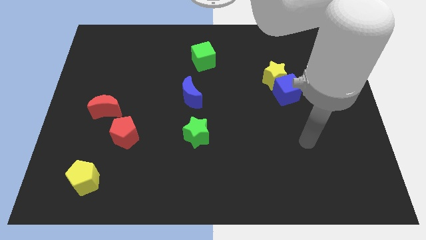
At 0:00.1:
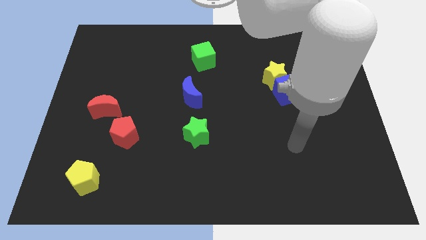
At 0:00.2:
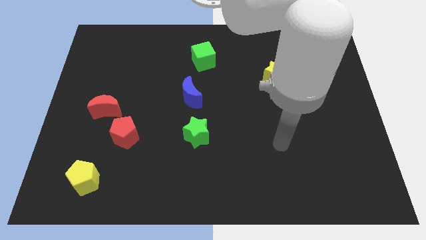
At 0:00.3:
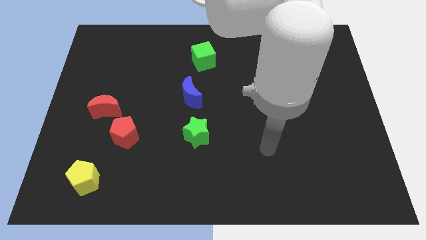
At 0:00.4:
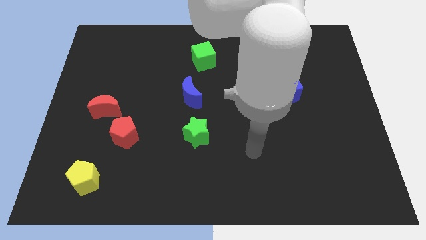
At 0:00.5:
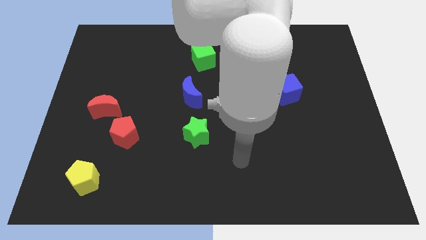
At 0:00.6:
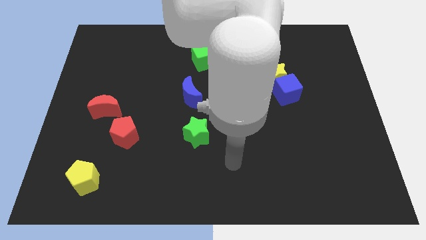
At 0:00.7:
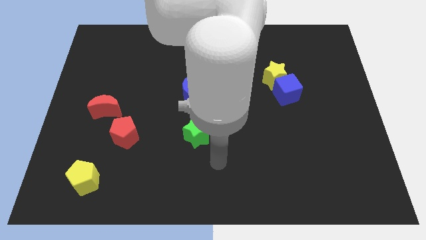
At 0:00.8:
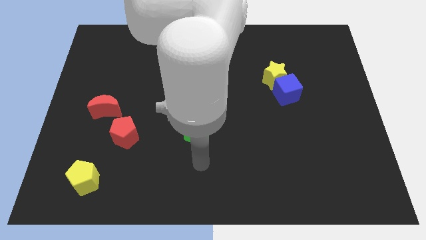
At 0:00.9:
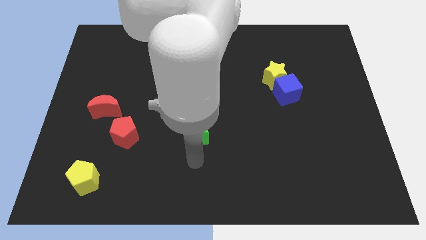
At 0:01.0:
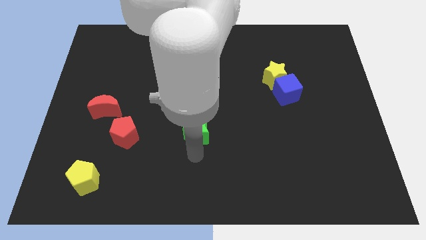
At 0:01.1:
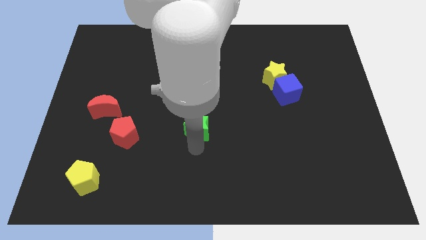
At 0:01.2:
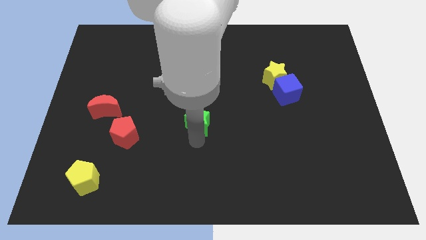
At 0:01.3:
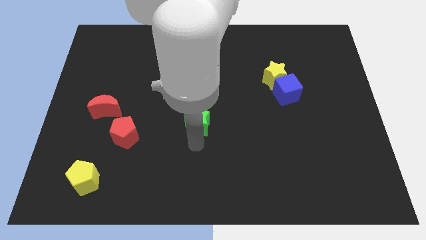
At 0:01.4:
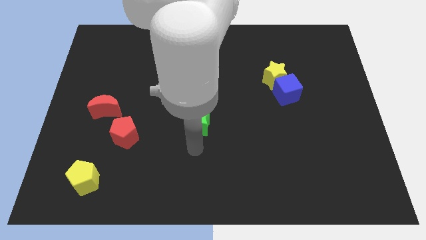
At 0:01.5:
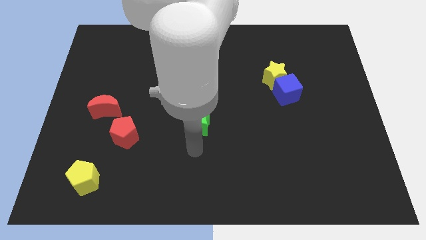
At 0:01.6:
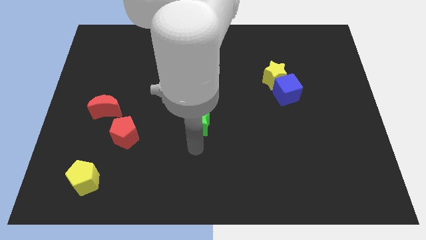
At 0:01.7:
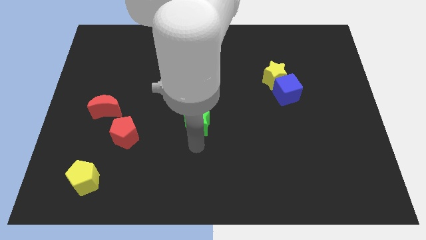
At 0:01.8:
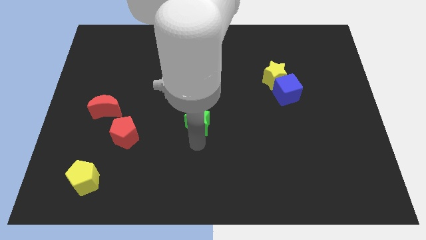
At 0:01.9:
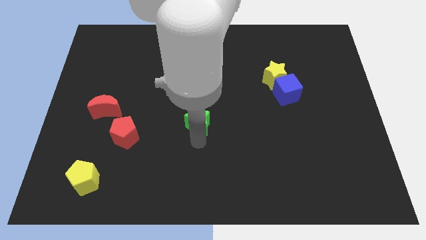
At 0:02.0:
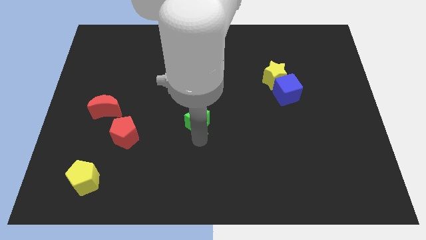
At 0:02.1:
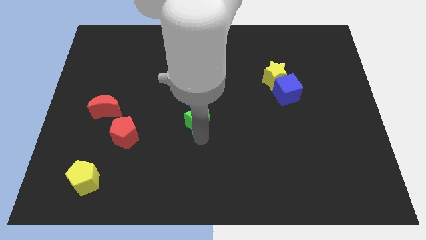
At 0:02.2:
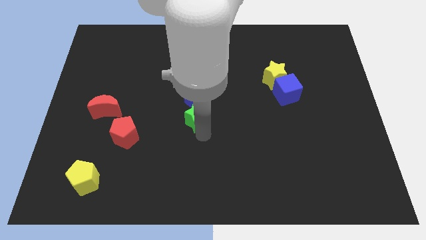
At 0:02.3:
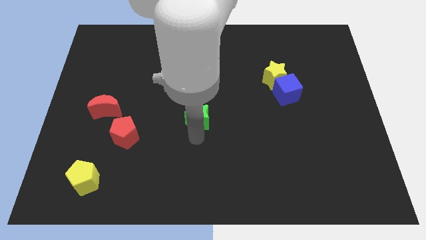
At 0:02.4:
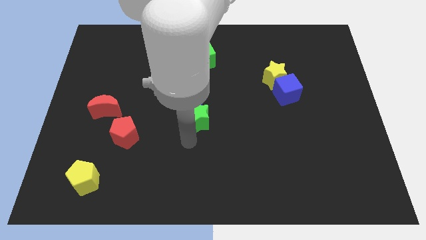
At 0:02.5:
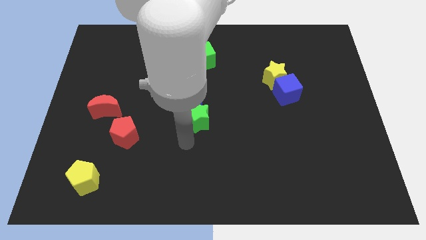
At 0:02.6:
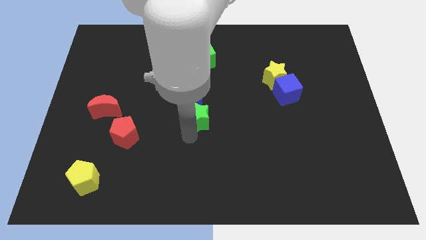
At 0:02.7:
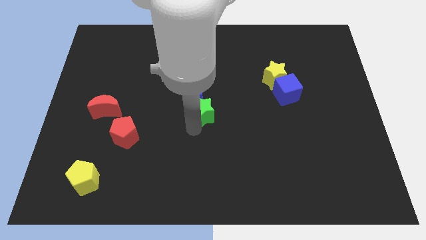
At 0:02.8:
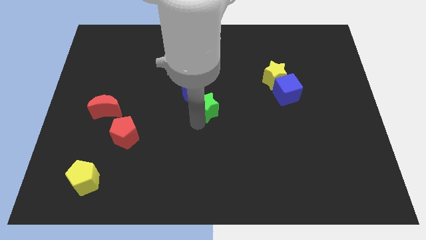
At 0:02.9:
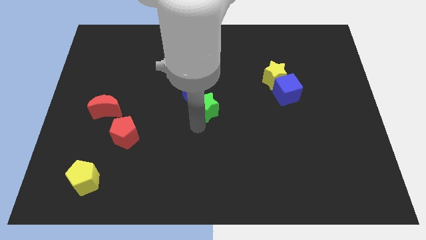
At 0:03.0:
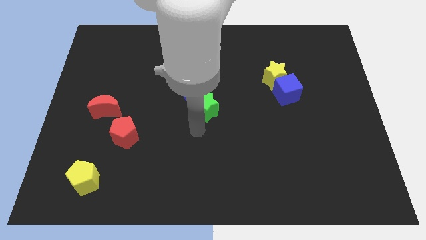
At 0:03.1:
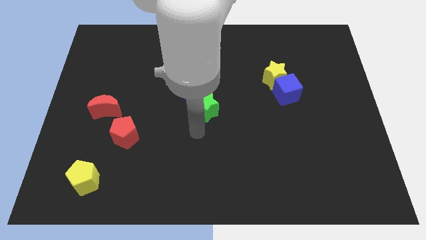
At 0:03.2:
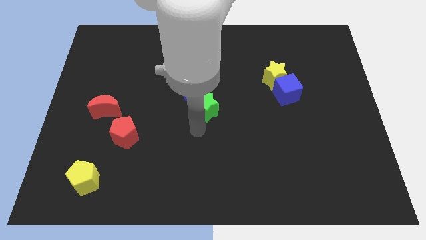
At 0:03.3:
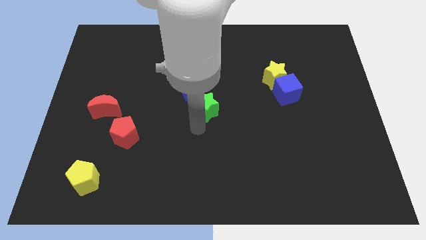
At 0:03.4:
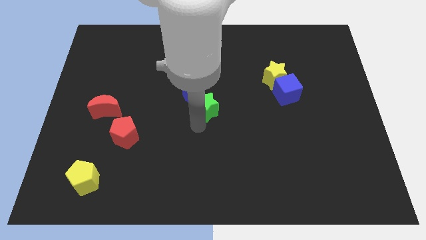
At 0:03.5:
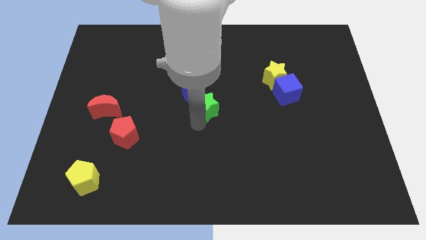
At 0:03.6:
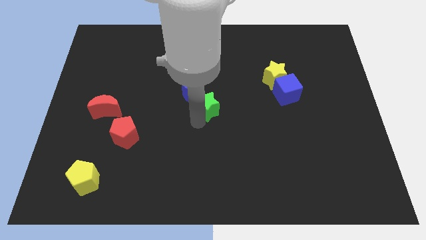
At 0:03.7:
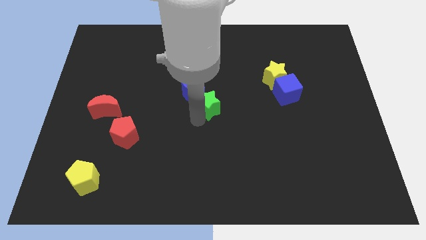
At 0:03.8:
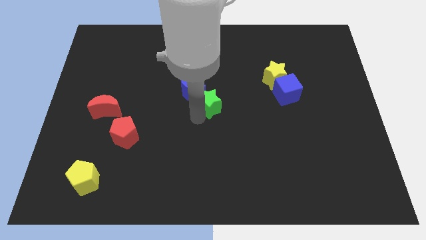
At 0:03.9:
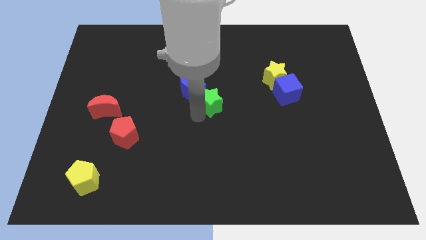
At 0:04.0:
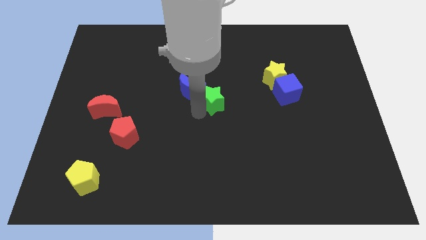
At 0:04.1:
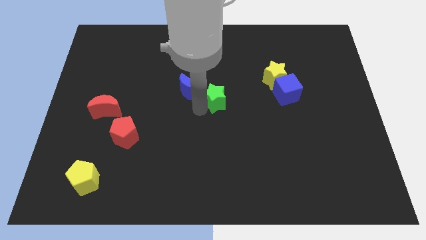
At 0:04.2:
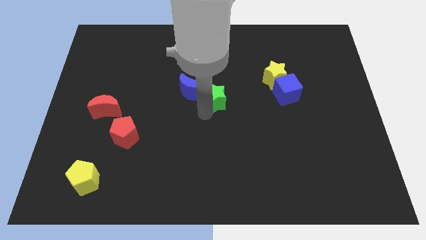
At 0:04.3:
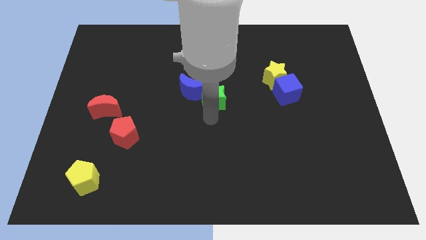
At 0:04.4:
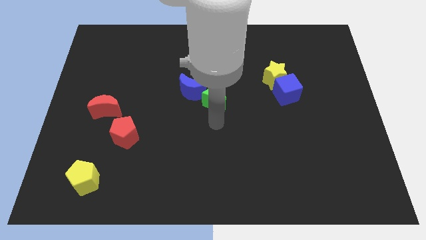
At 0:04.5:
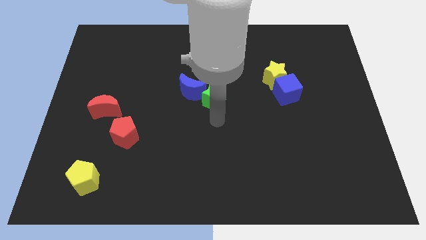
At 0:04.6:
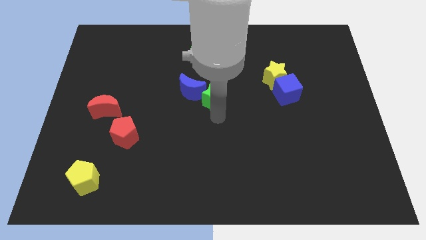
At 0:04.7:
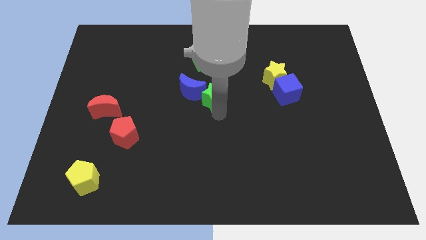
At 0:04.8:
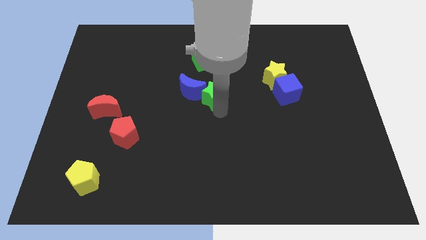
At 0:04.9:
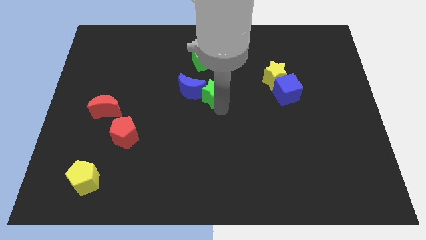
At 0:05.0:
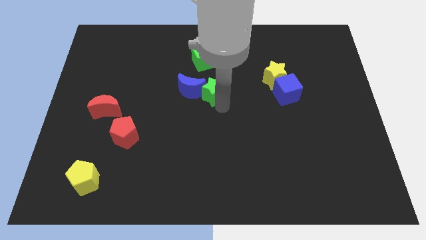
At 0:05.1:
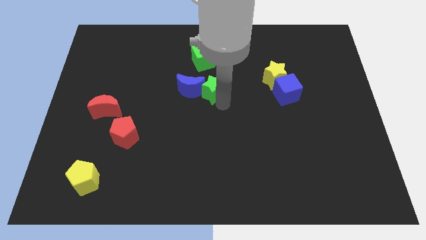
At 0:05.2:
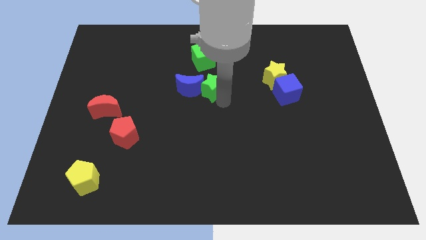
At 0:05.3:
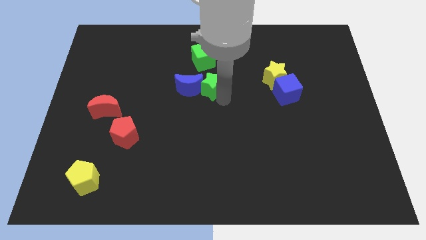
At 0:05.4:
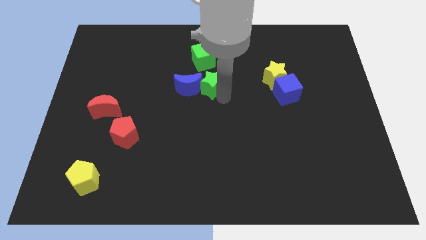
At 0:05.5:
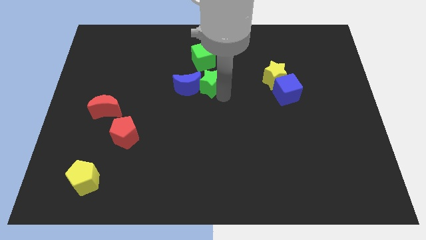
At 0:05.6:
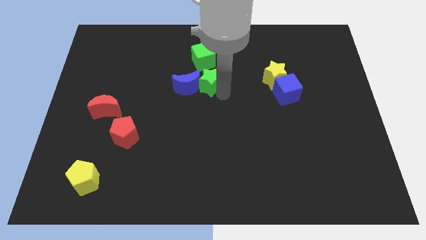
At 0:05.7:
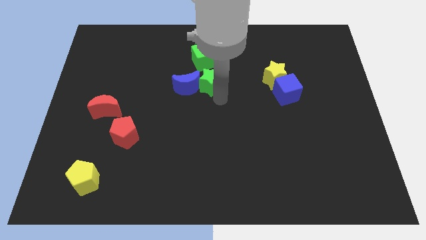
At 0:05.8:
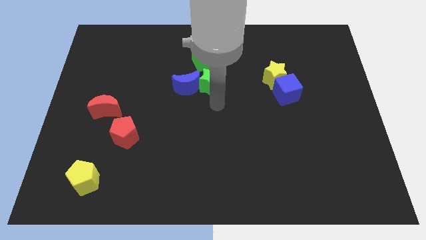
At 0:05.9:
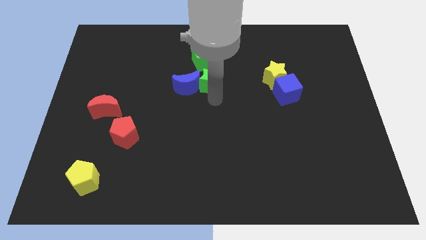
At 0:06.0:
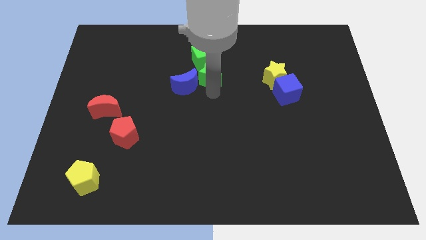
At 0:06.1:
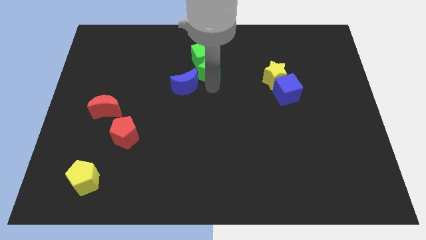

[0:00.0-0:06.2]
push the green star towards the green cube

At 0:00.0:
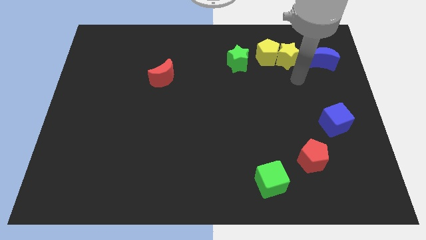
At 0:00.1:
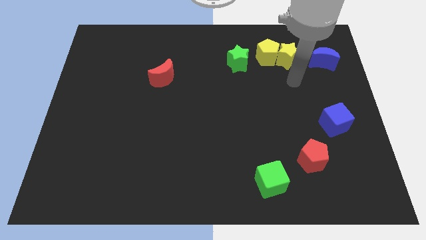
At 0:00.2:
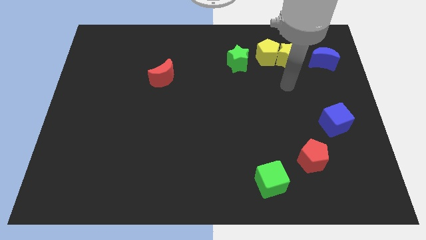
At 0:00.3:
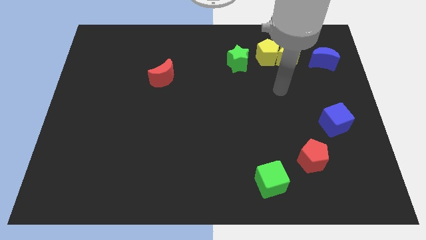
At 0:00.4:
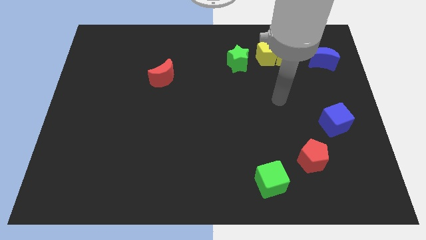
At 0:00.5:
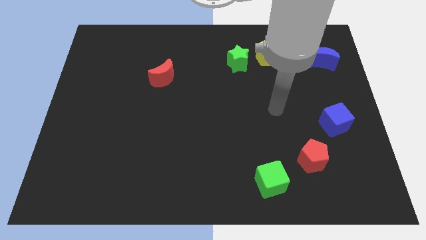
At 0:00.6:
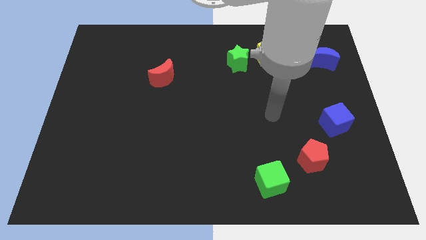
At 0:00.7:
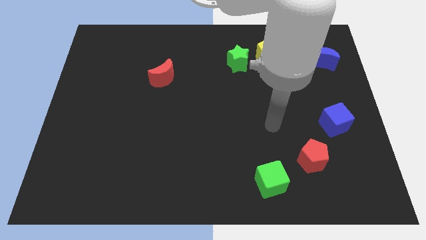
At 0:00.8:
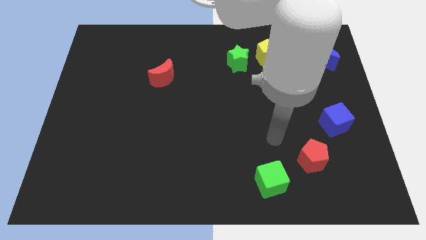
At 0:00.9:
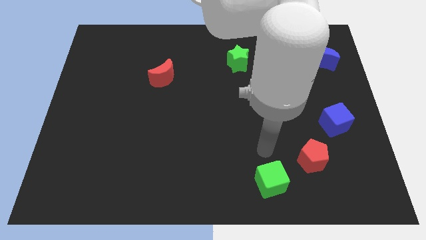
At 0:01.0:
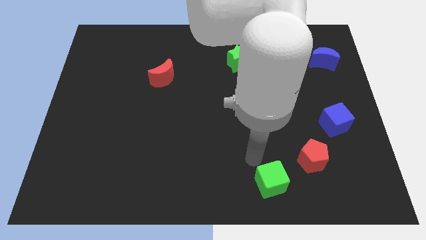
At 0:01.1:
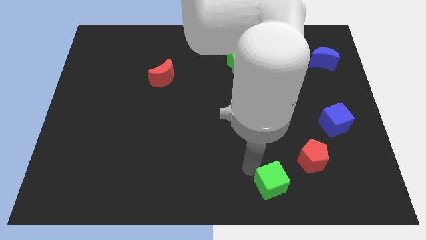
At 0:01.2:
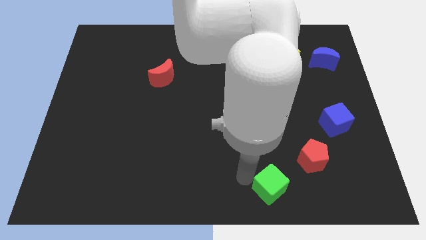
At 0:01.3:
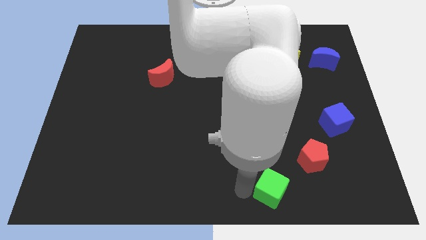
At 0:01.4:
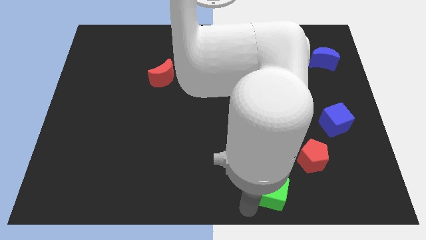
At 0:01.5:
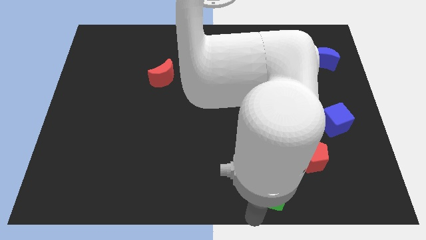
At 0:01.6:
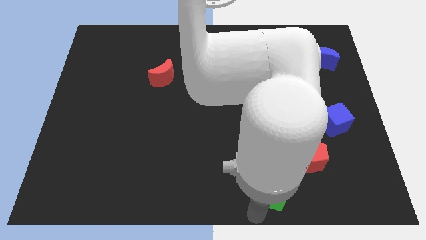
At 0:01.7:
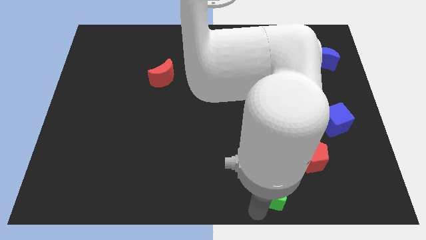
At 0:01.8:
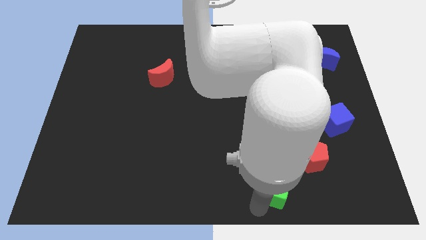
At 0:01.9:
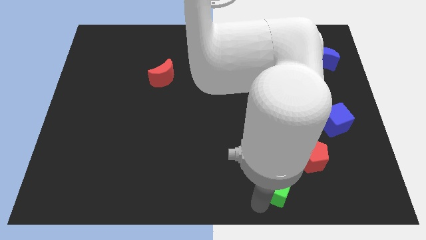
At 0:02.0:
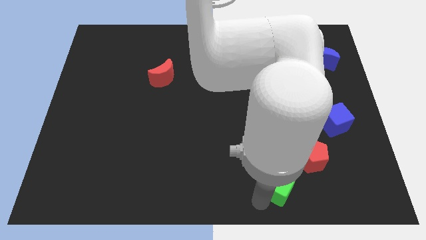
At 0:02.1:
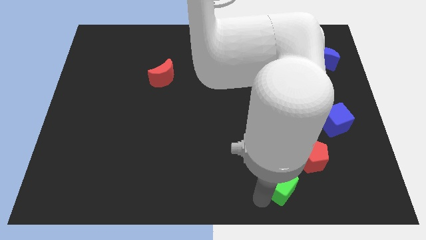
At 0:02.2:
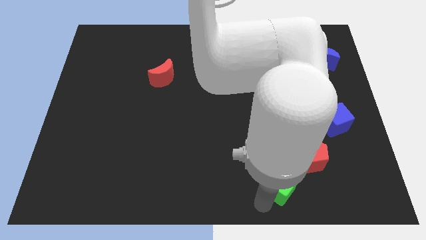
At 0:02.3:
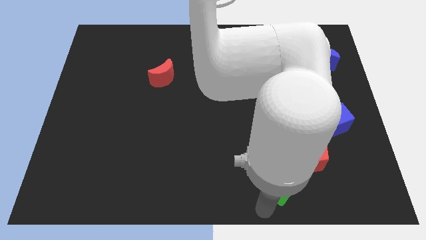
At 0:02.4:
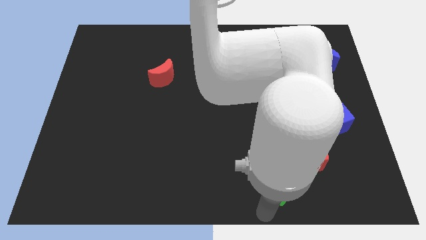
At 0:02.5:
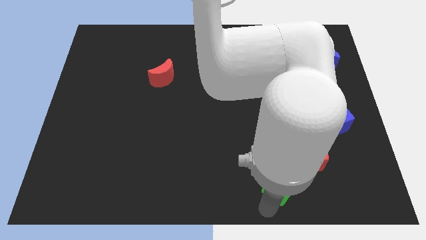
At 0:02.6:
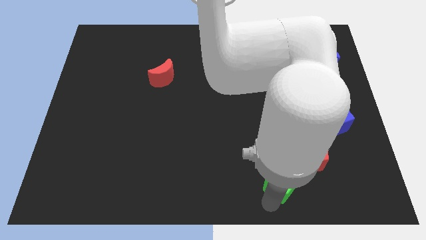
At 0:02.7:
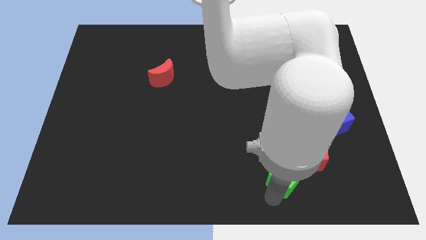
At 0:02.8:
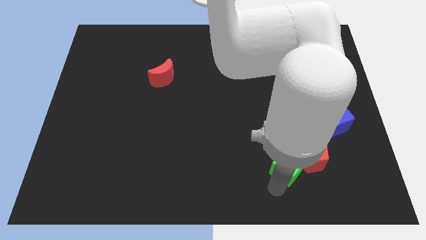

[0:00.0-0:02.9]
slide the green cube next to the red pentagon
